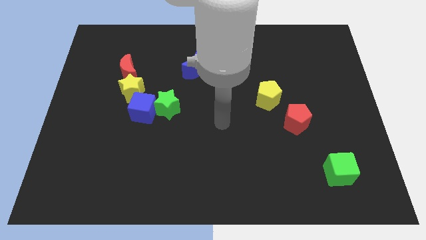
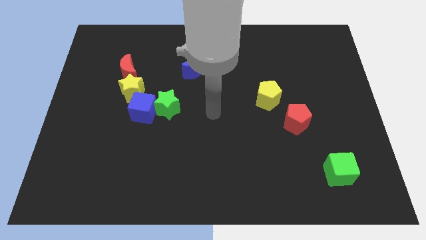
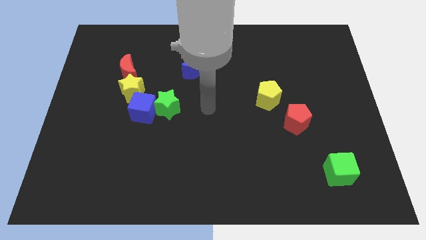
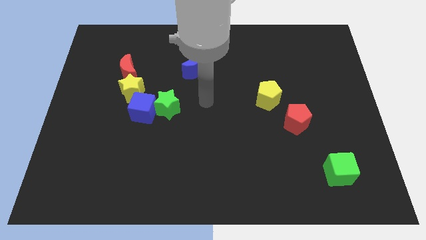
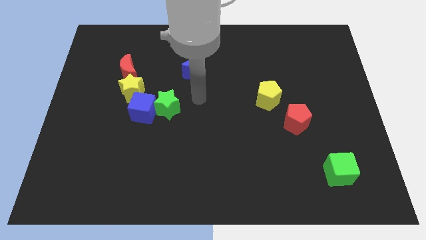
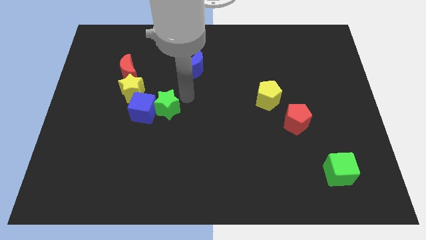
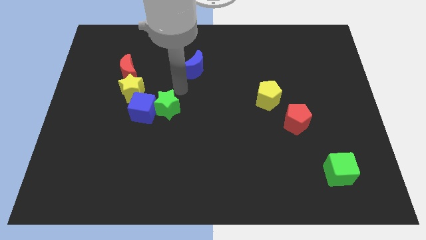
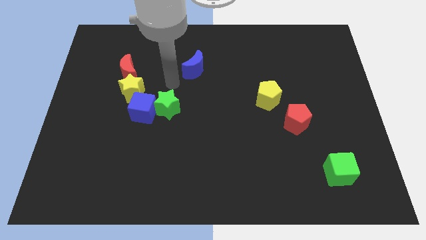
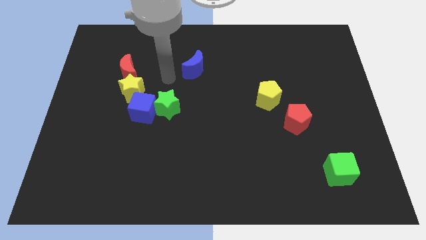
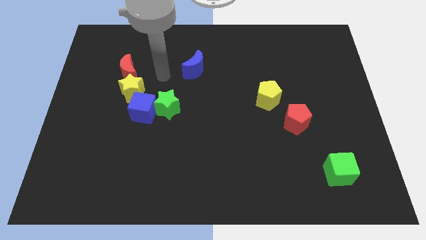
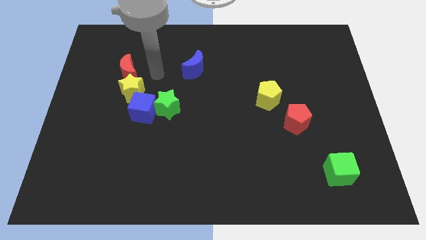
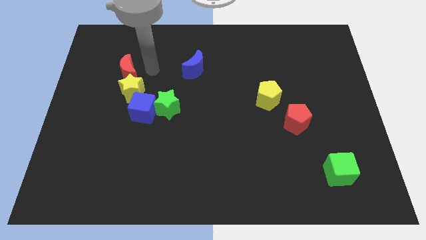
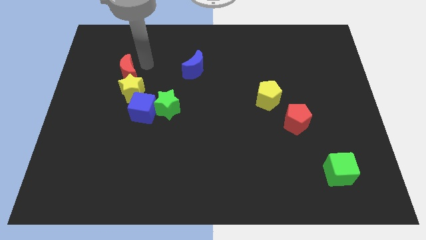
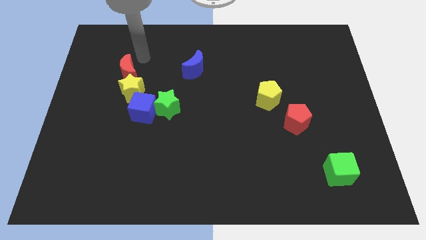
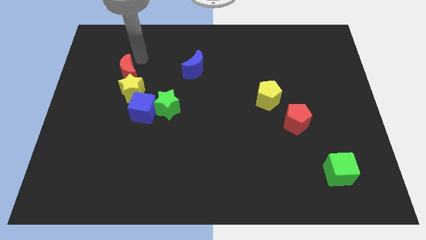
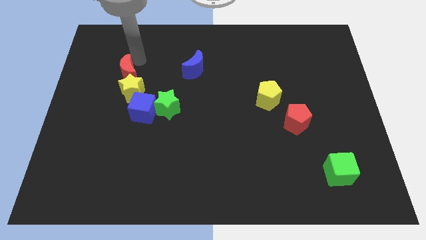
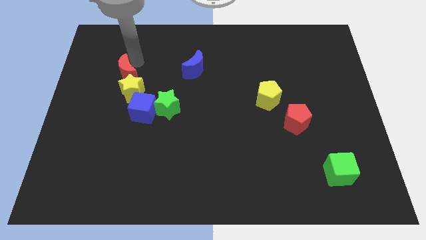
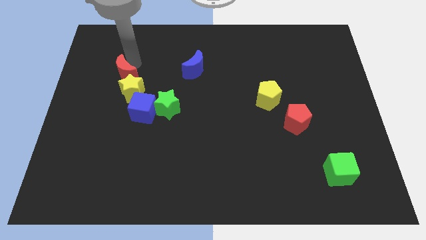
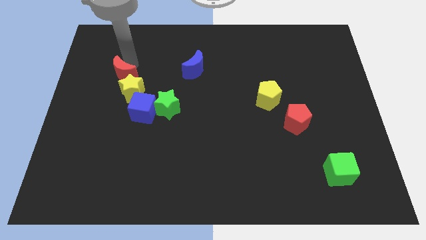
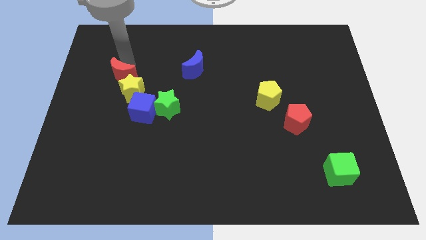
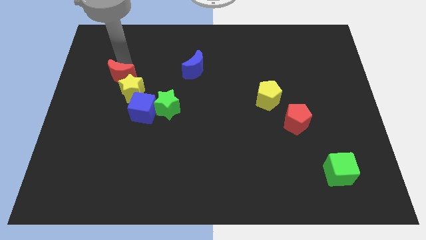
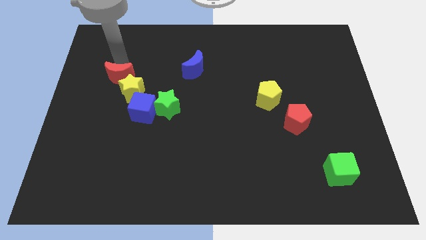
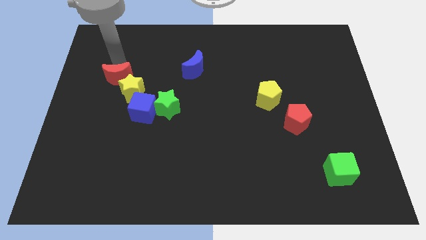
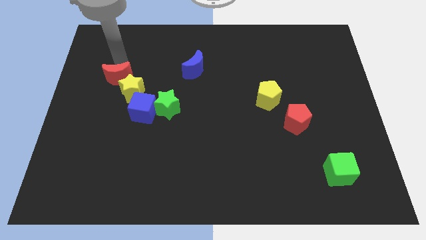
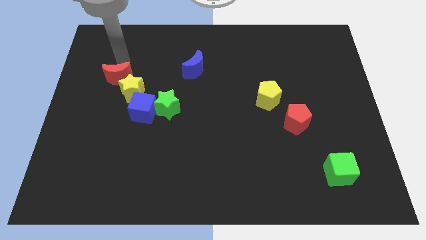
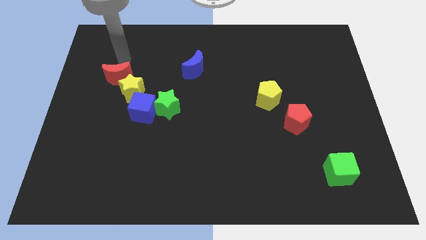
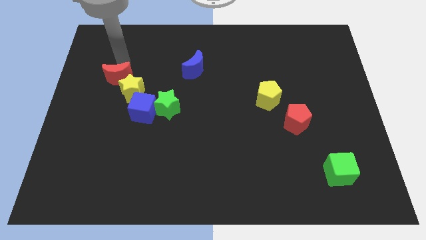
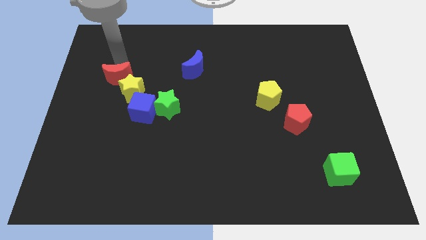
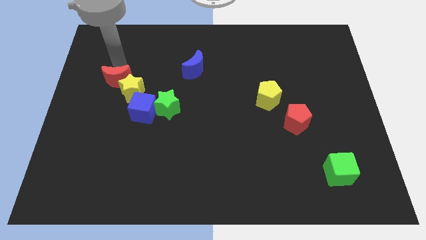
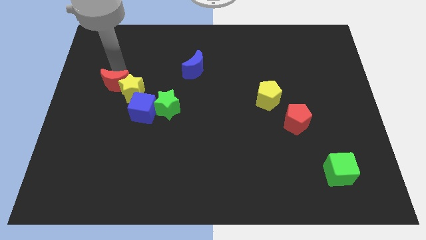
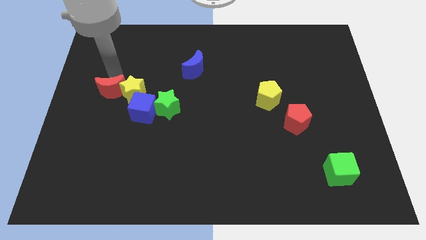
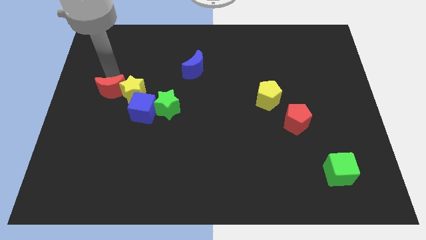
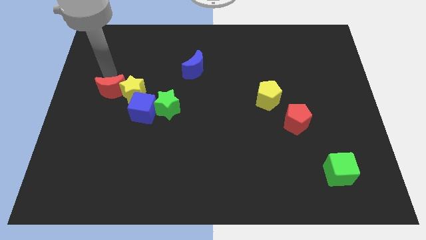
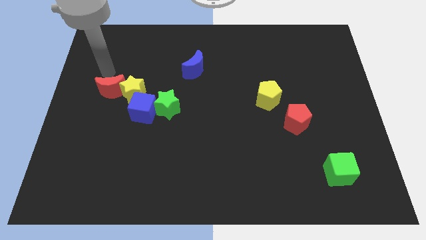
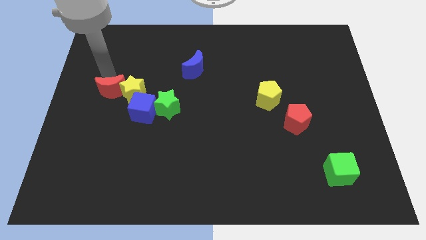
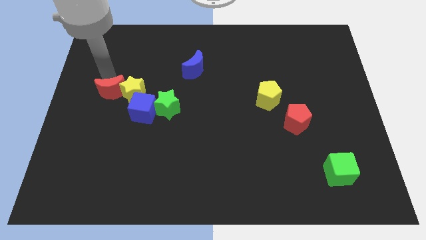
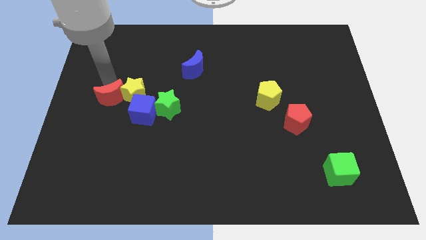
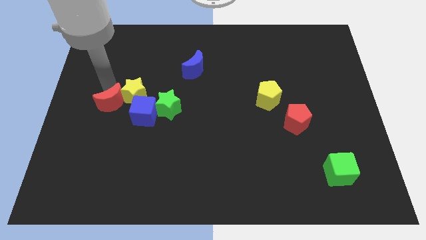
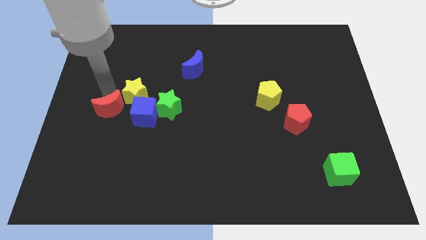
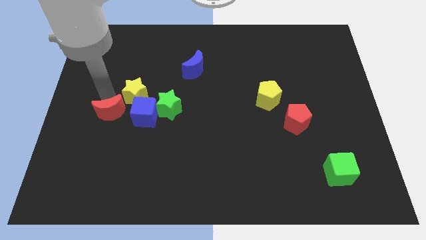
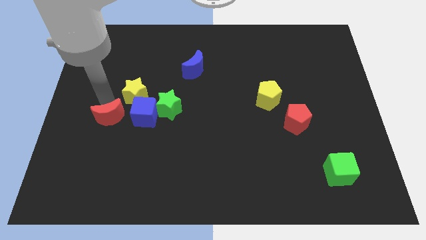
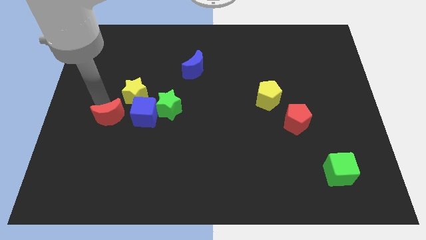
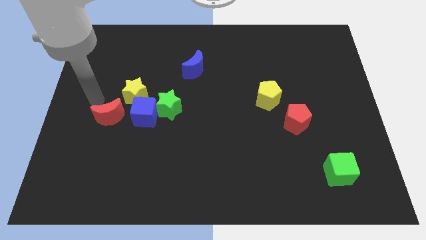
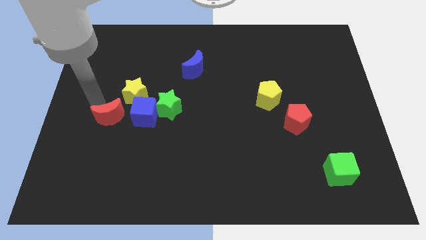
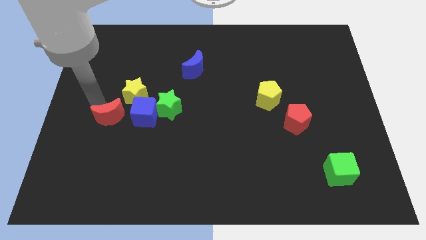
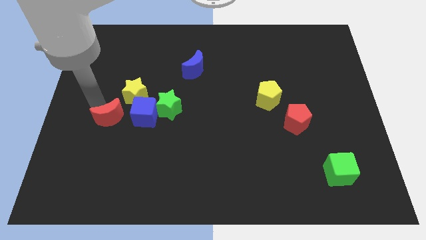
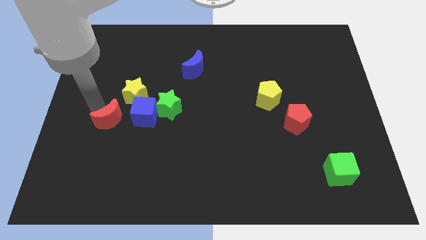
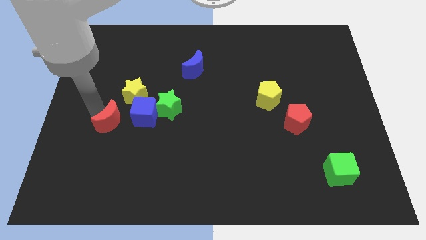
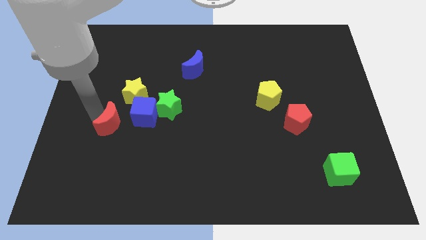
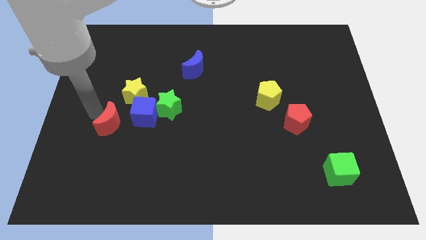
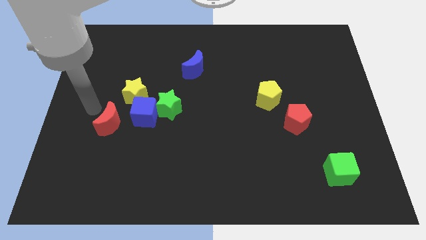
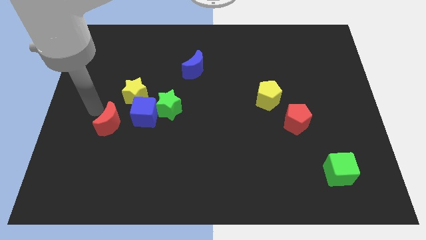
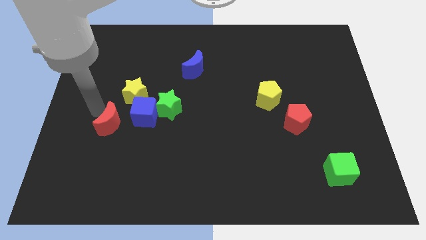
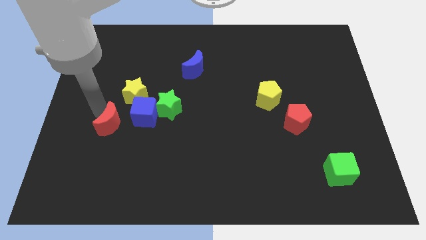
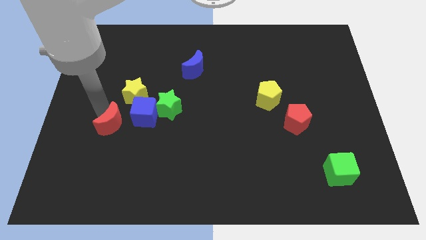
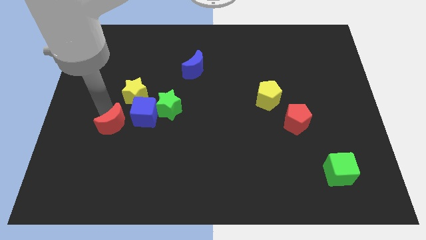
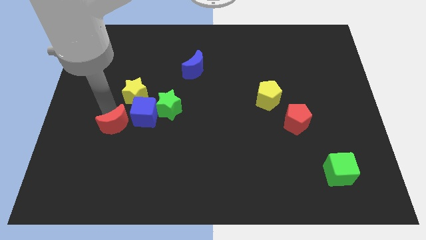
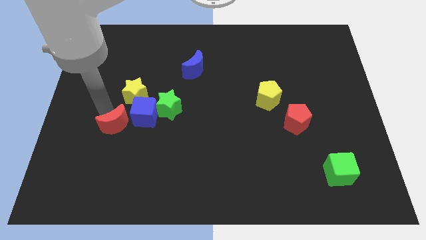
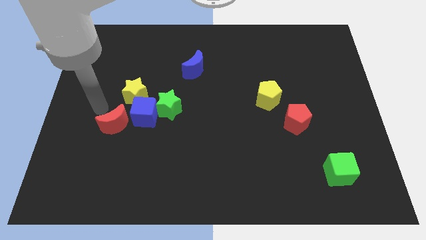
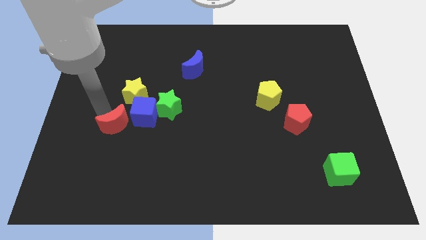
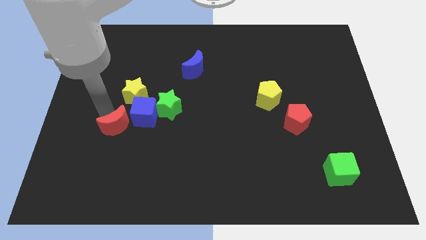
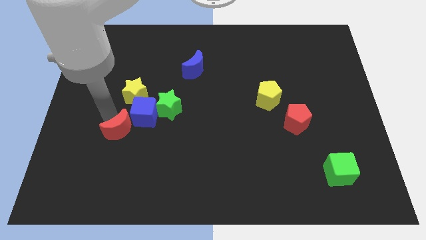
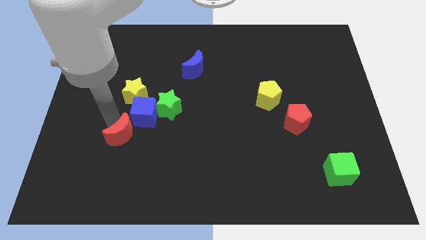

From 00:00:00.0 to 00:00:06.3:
put the red moon to the bottom side of the blue cube
